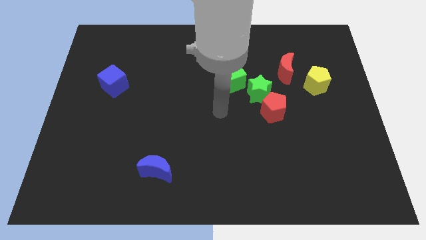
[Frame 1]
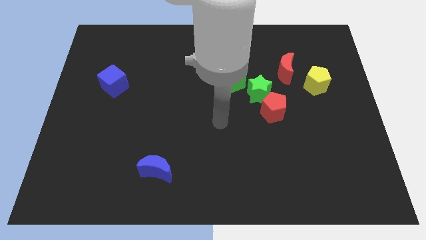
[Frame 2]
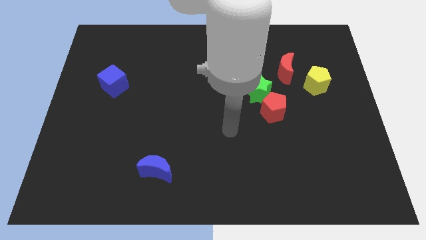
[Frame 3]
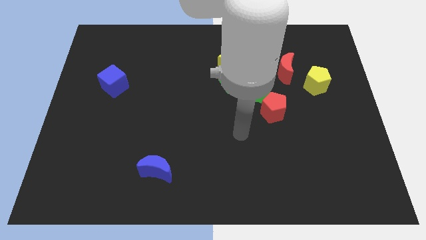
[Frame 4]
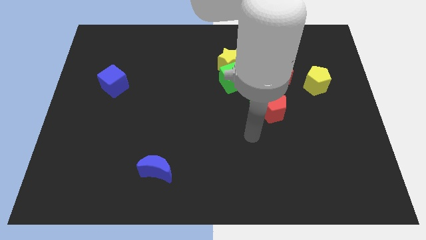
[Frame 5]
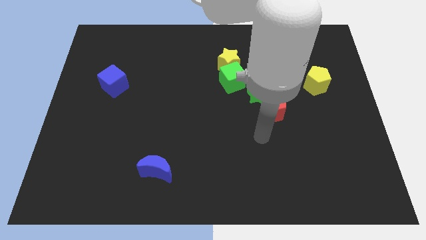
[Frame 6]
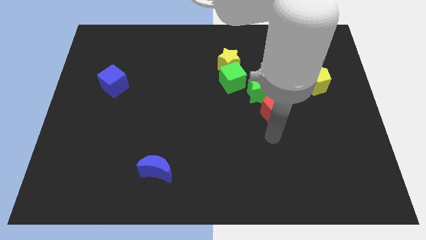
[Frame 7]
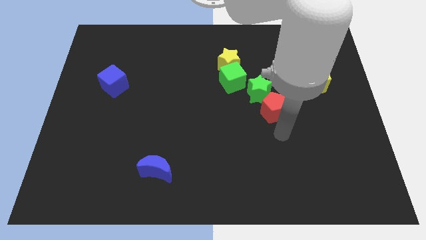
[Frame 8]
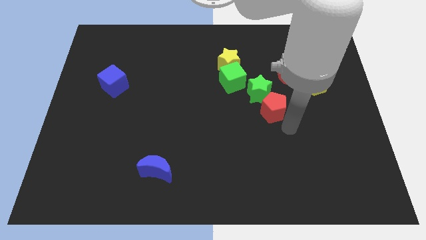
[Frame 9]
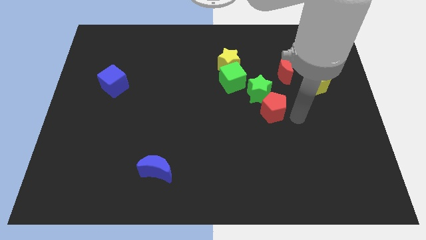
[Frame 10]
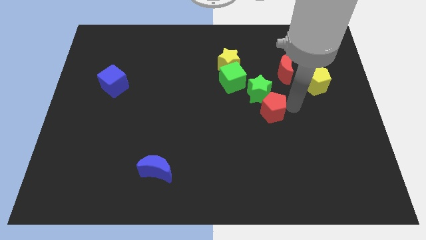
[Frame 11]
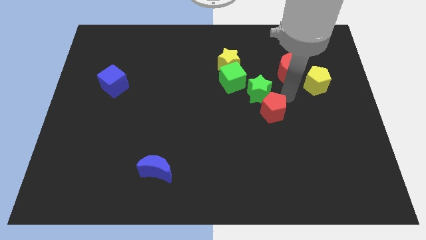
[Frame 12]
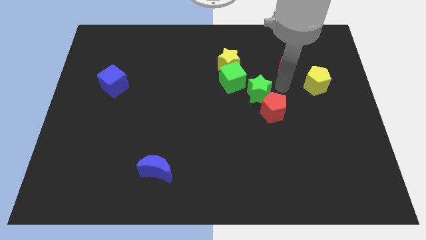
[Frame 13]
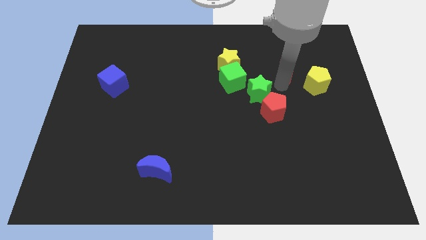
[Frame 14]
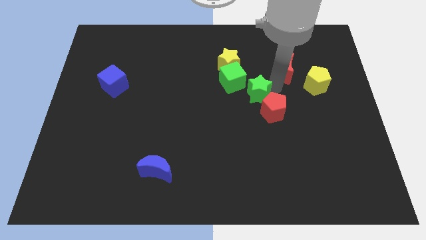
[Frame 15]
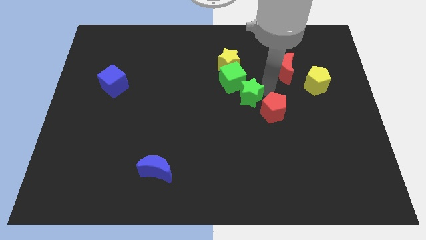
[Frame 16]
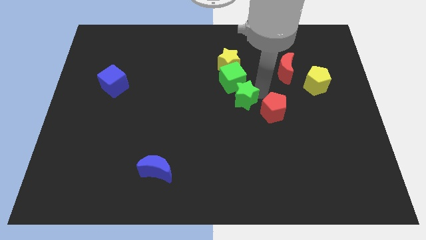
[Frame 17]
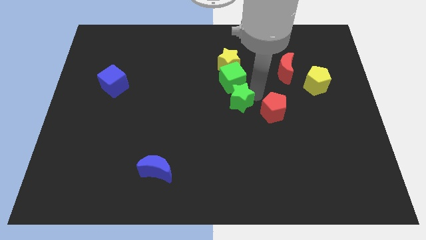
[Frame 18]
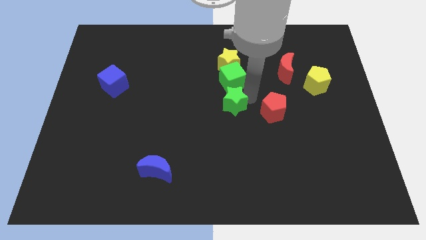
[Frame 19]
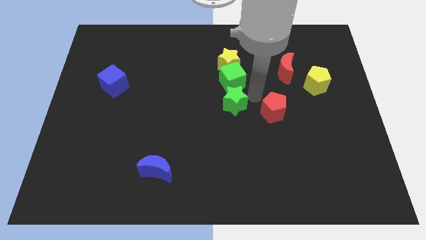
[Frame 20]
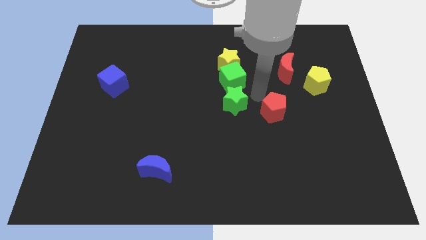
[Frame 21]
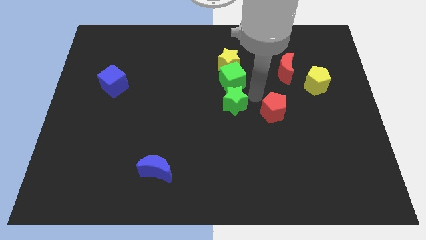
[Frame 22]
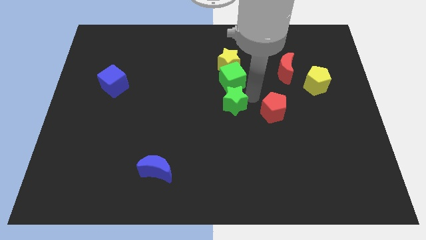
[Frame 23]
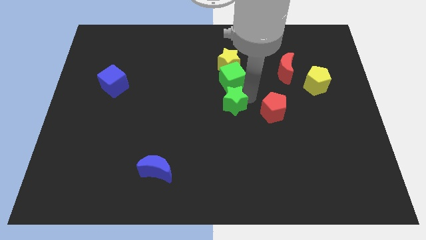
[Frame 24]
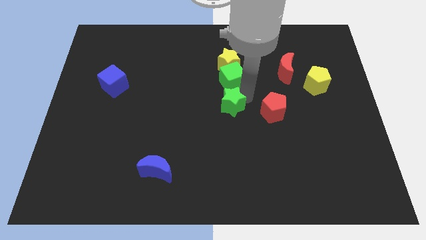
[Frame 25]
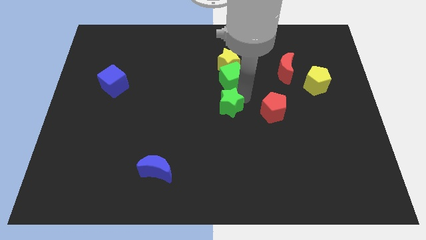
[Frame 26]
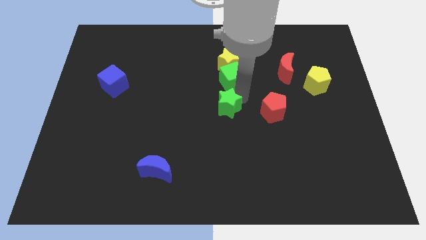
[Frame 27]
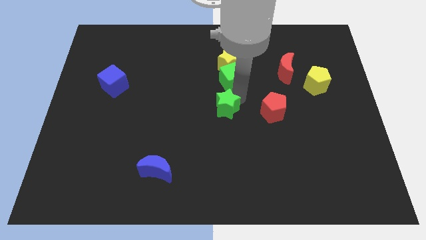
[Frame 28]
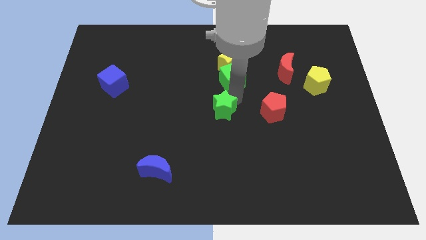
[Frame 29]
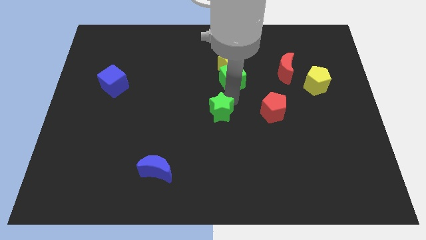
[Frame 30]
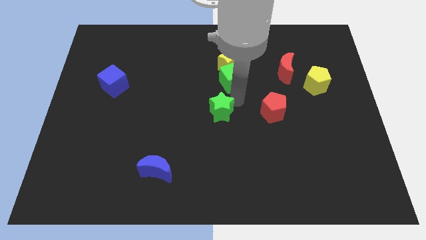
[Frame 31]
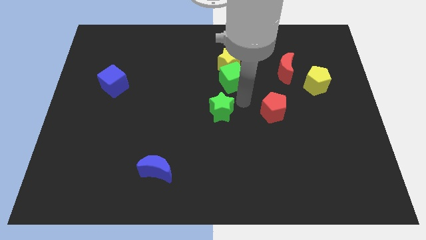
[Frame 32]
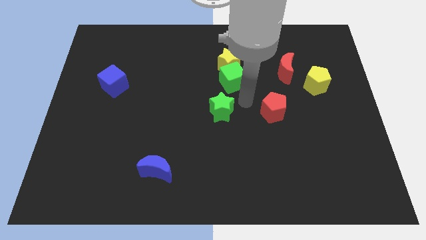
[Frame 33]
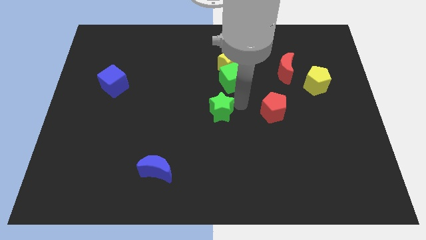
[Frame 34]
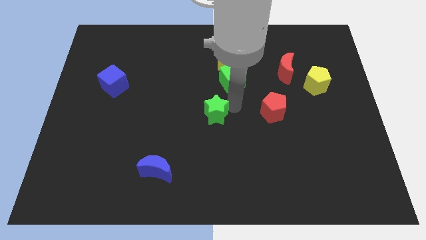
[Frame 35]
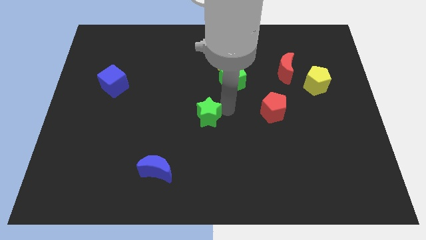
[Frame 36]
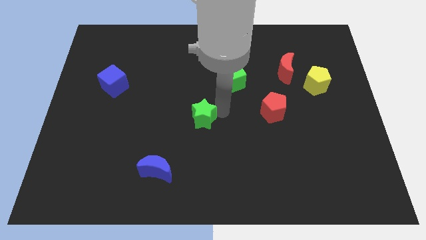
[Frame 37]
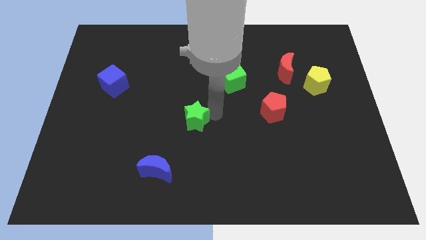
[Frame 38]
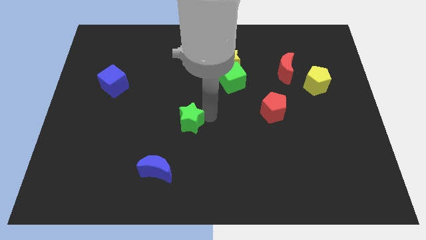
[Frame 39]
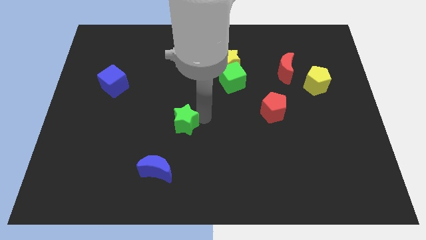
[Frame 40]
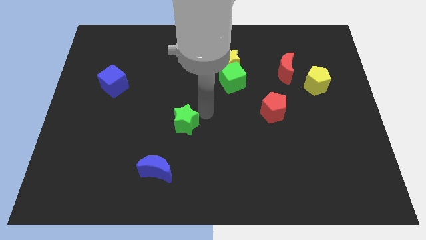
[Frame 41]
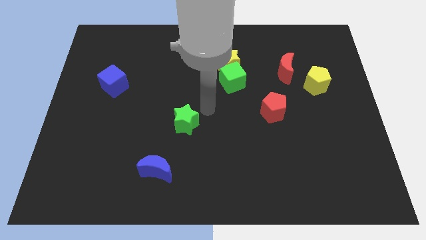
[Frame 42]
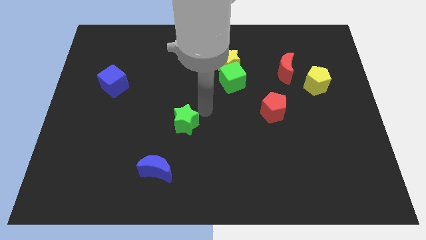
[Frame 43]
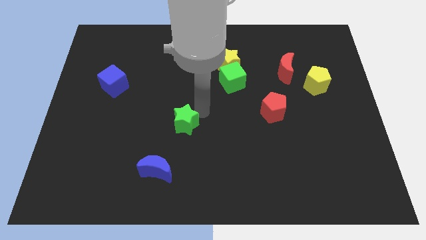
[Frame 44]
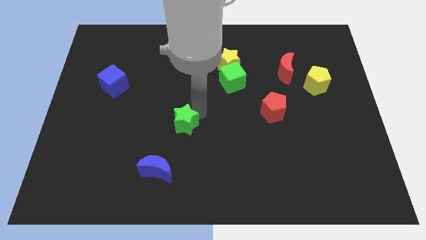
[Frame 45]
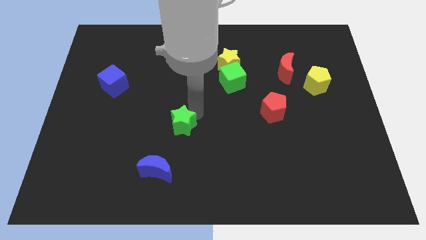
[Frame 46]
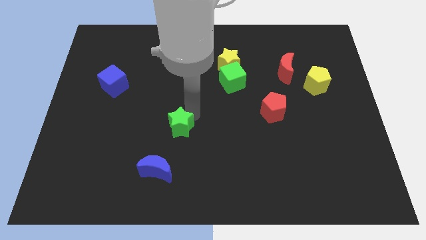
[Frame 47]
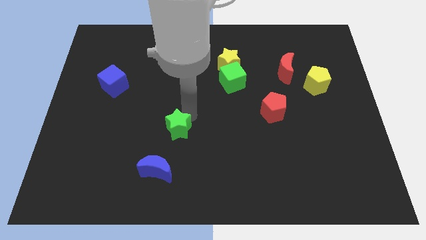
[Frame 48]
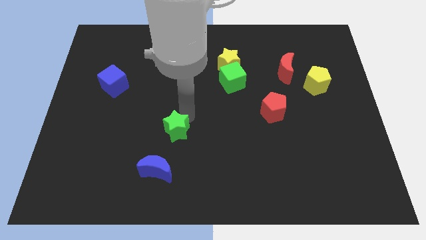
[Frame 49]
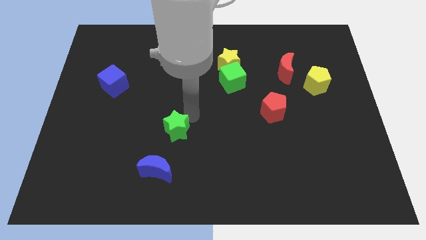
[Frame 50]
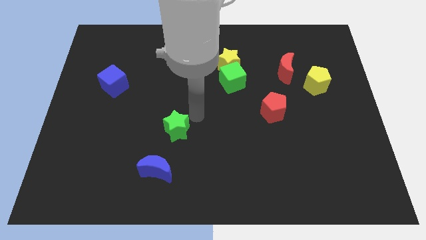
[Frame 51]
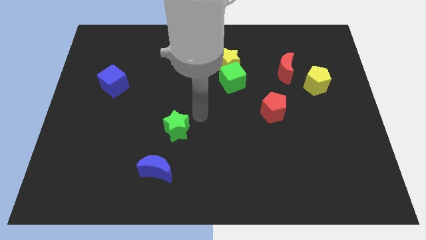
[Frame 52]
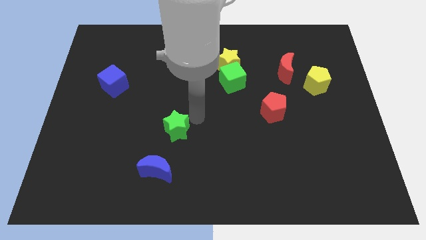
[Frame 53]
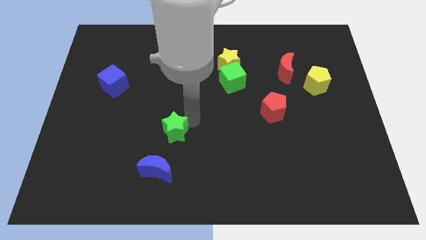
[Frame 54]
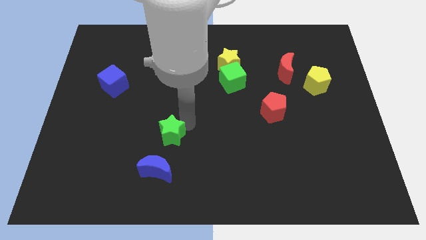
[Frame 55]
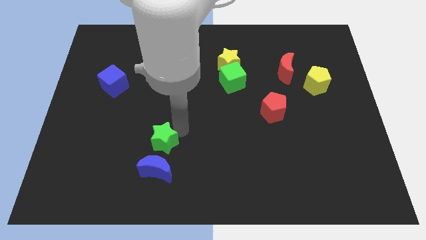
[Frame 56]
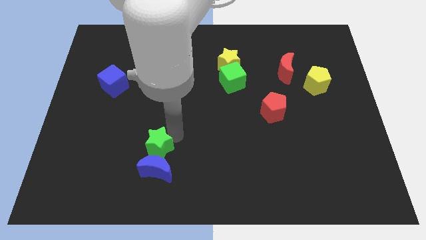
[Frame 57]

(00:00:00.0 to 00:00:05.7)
push the green star to the top left side of the blue moon

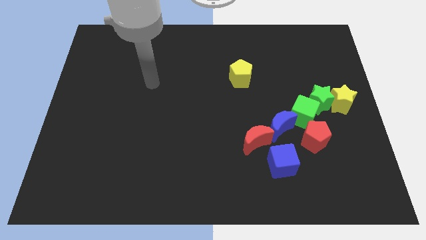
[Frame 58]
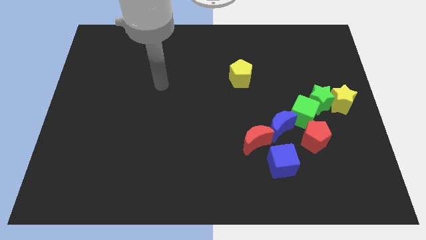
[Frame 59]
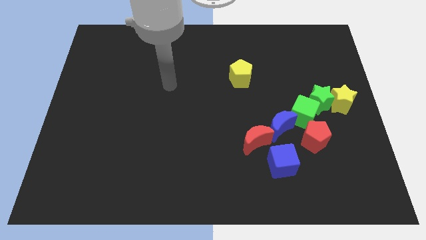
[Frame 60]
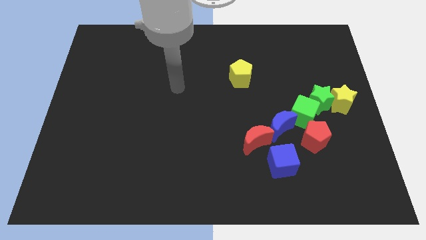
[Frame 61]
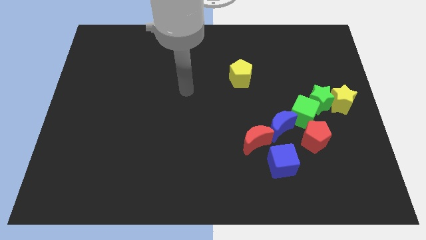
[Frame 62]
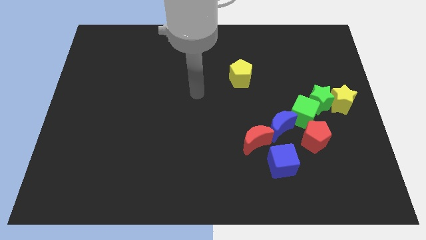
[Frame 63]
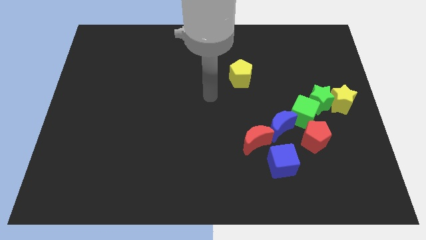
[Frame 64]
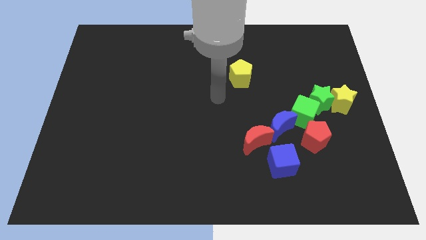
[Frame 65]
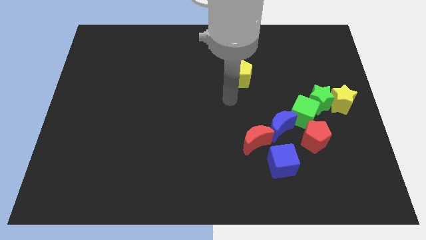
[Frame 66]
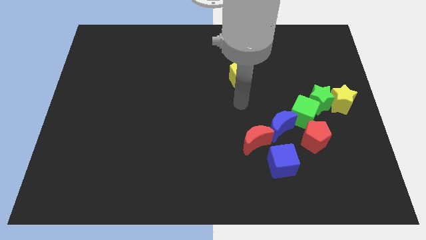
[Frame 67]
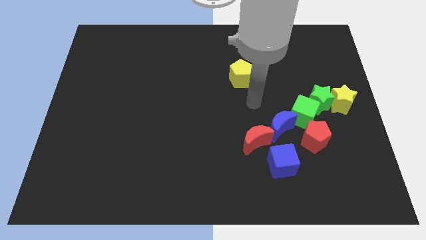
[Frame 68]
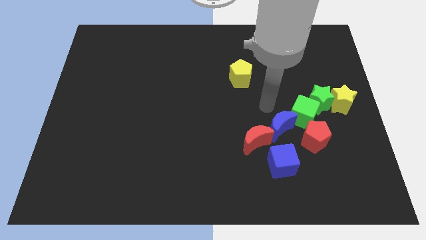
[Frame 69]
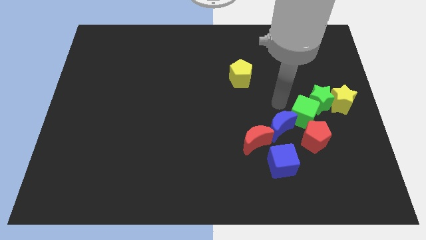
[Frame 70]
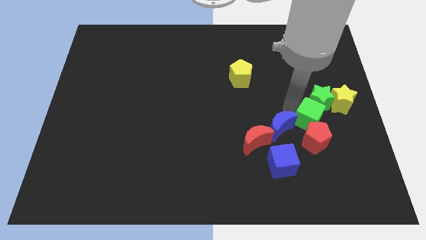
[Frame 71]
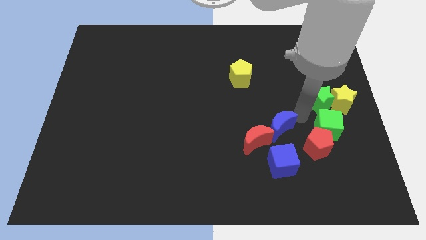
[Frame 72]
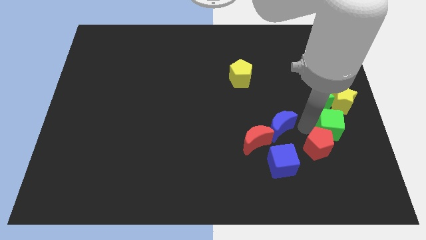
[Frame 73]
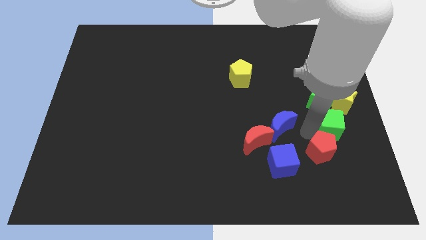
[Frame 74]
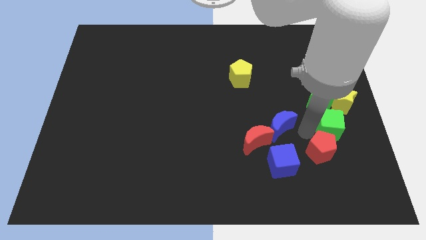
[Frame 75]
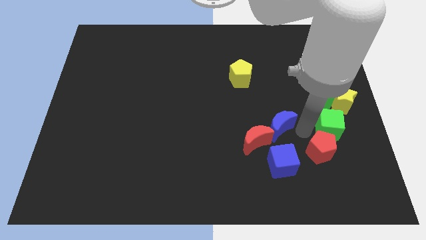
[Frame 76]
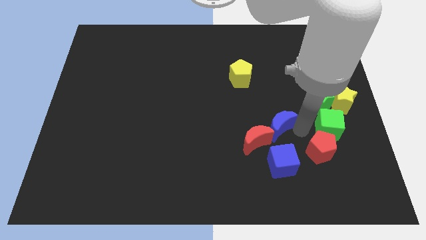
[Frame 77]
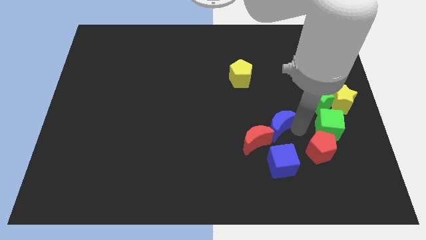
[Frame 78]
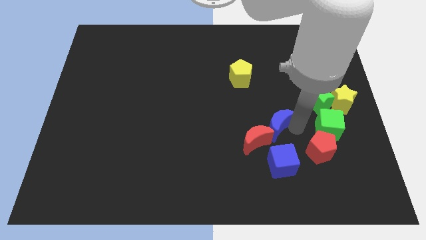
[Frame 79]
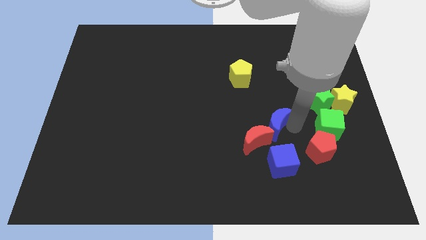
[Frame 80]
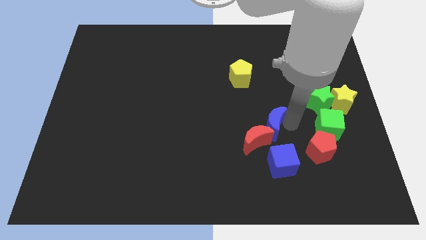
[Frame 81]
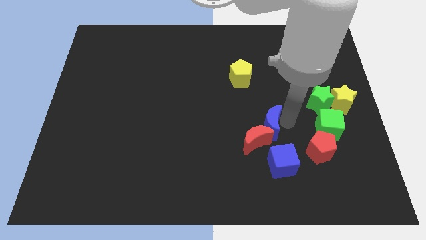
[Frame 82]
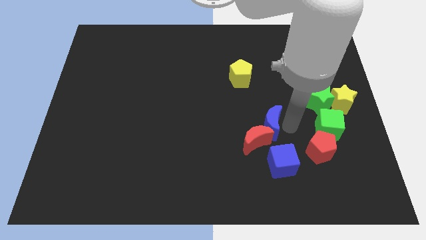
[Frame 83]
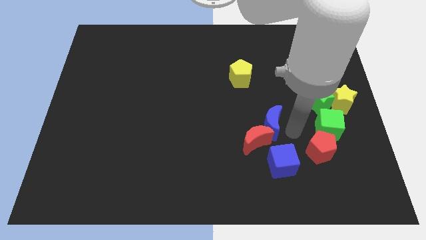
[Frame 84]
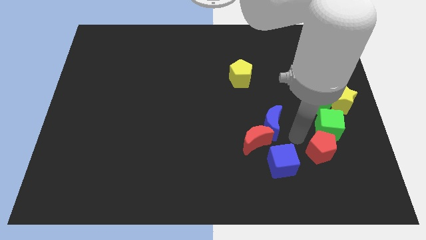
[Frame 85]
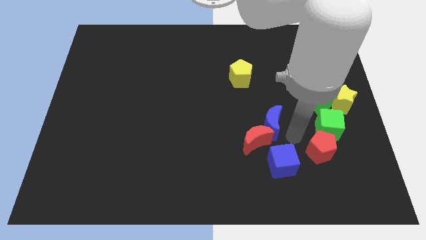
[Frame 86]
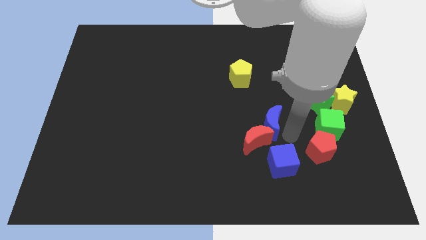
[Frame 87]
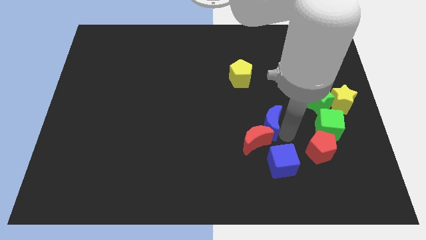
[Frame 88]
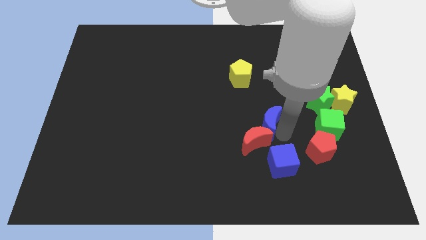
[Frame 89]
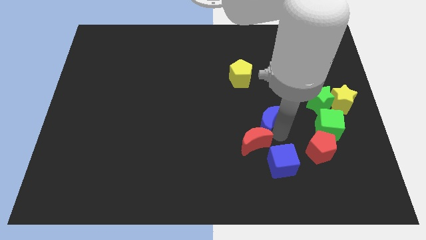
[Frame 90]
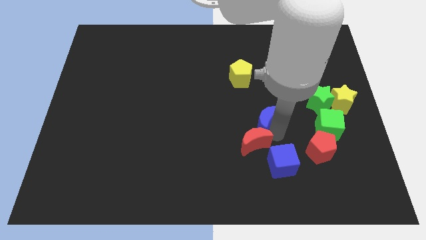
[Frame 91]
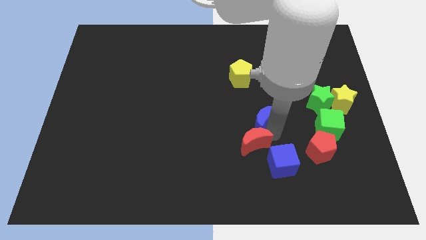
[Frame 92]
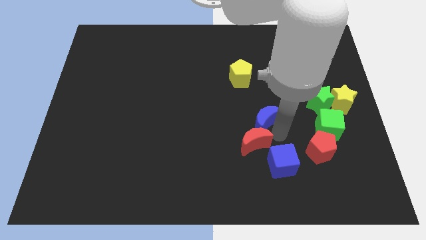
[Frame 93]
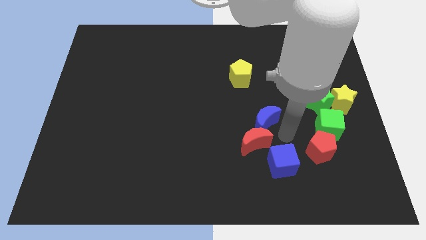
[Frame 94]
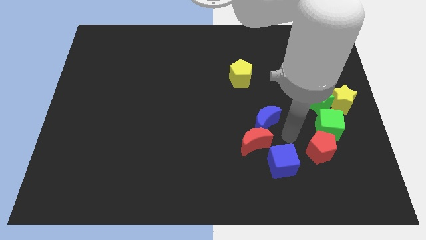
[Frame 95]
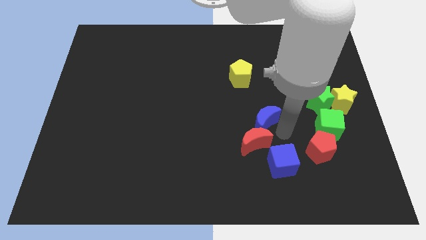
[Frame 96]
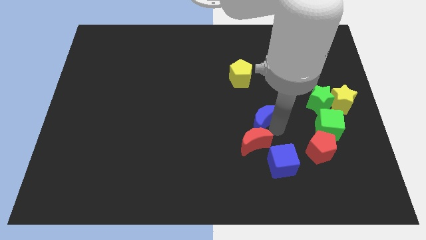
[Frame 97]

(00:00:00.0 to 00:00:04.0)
put the blue moon to the bottom of the yellow pentagon
